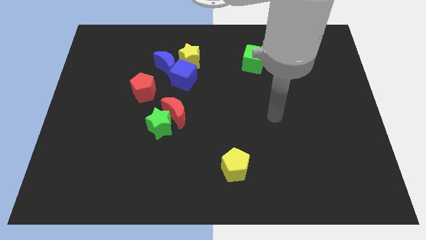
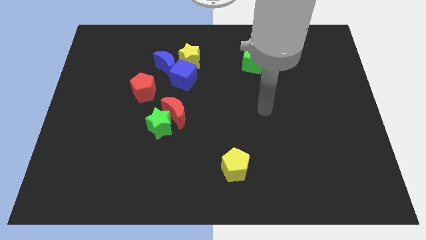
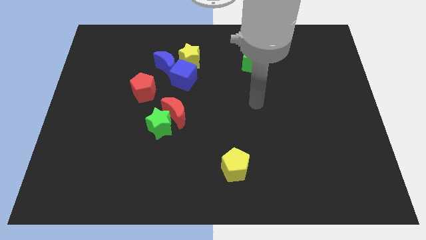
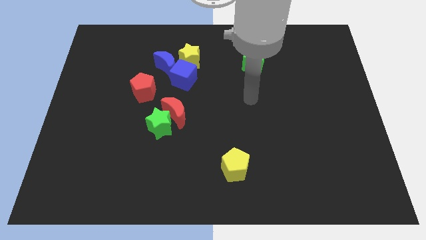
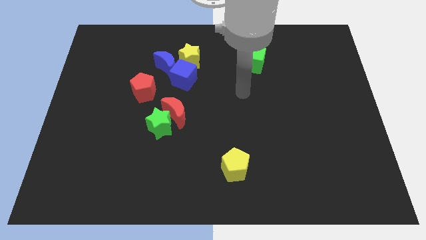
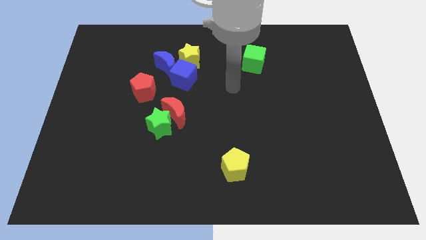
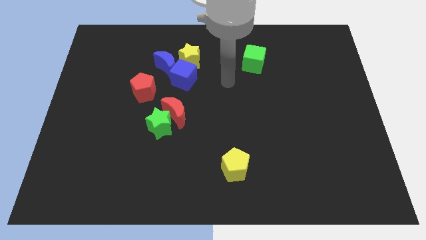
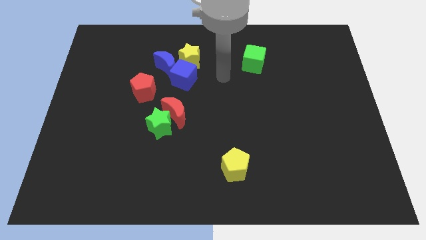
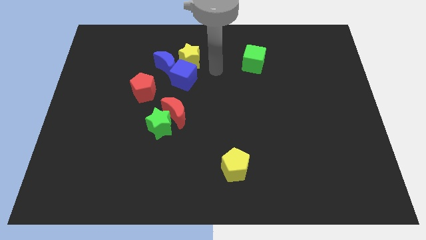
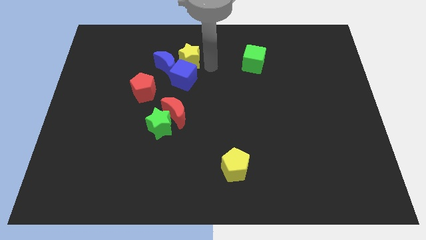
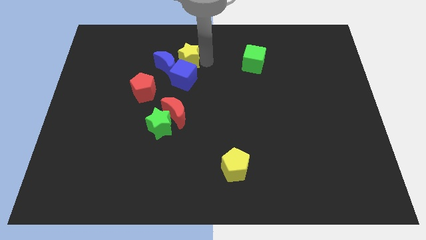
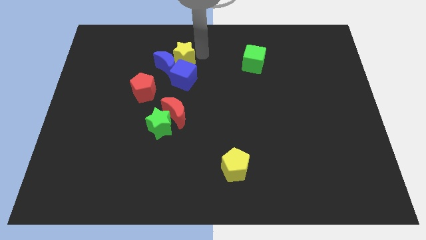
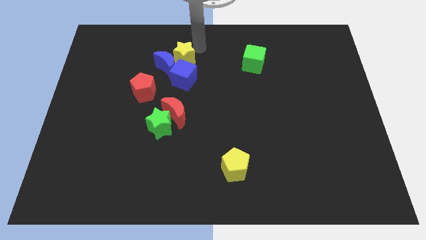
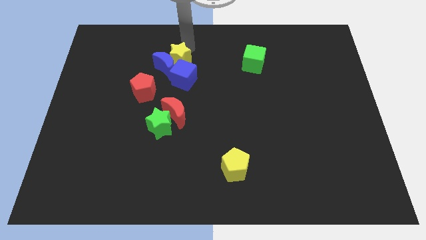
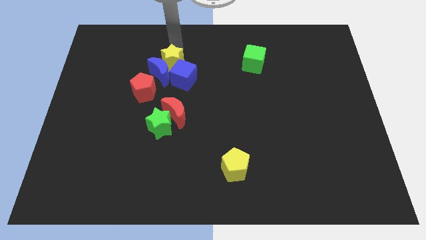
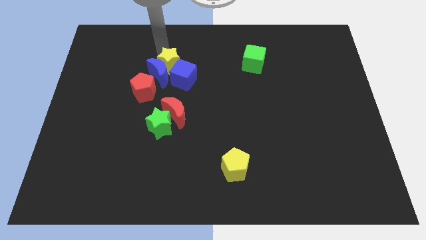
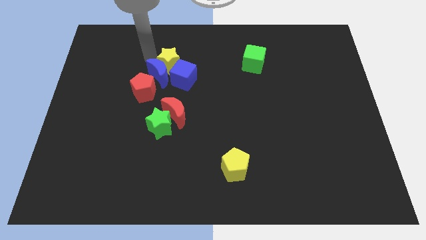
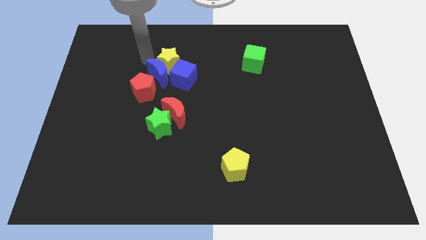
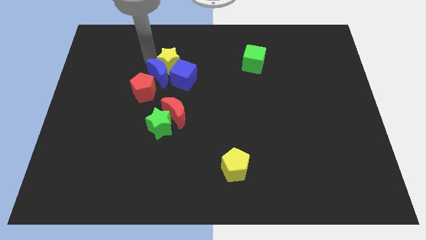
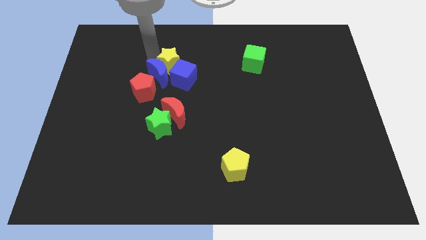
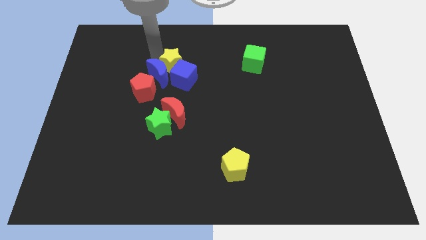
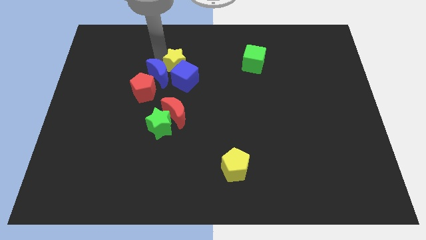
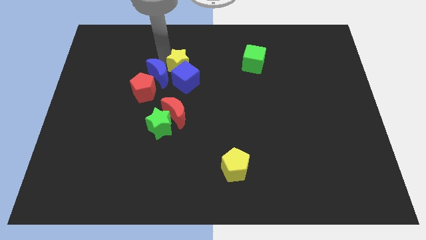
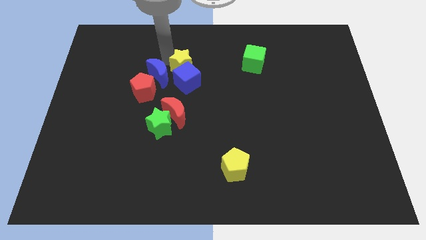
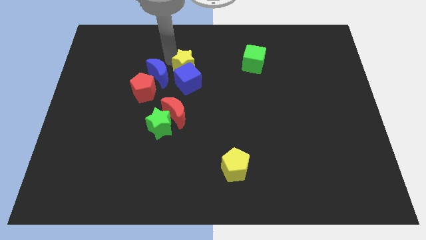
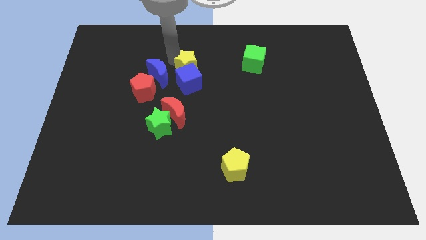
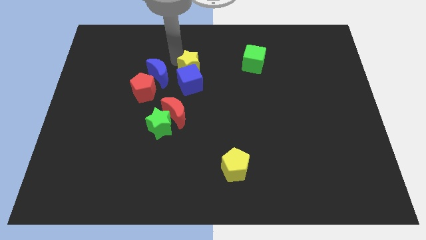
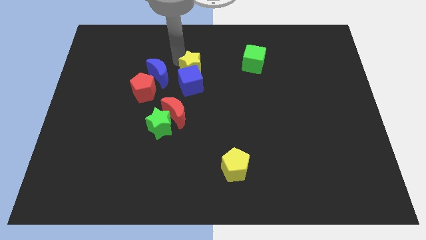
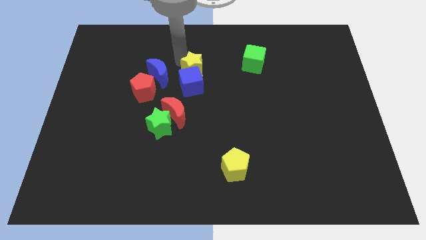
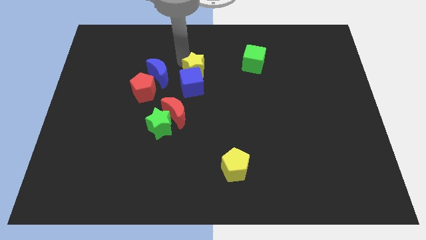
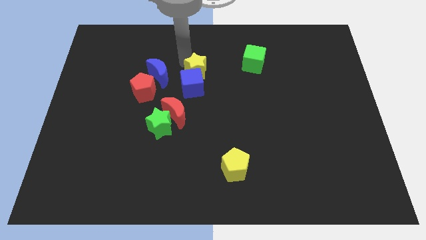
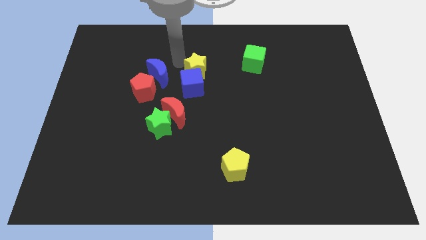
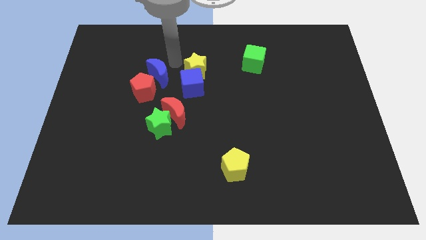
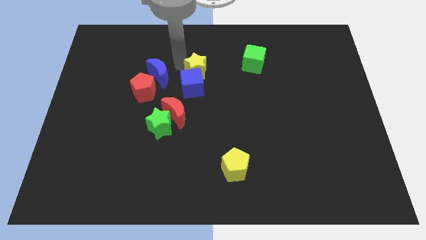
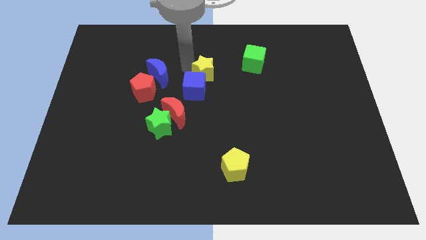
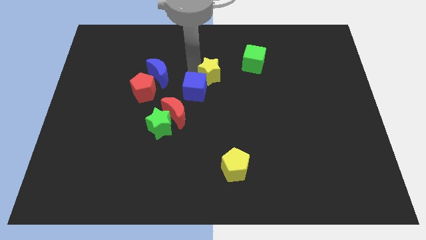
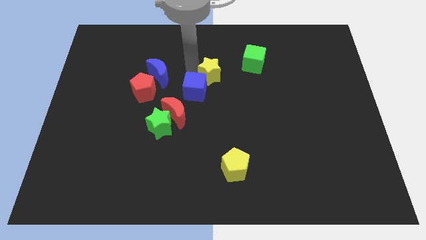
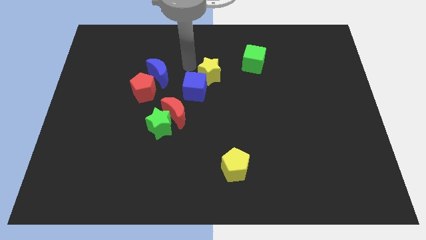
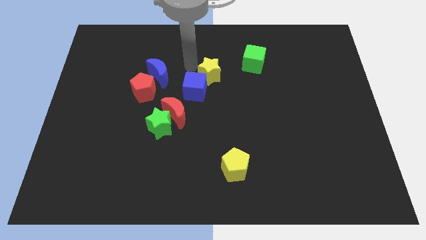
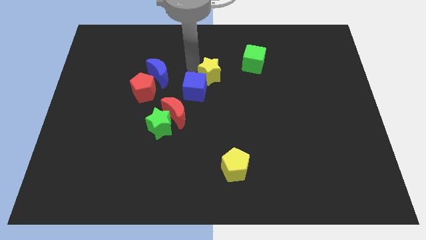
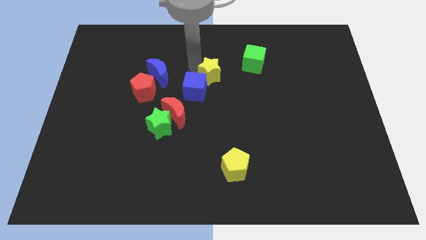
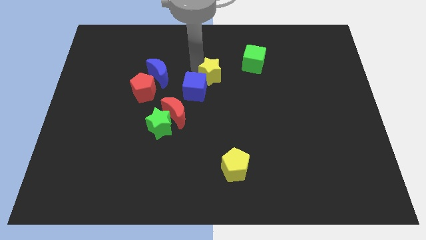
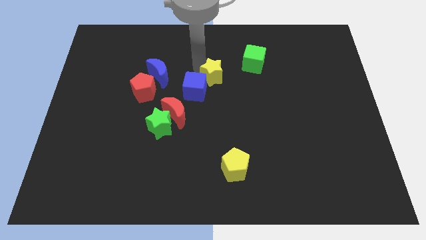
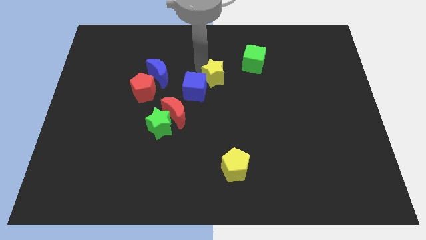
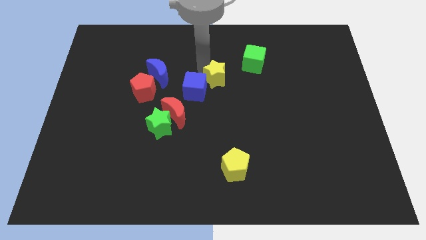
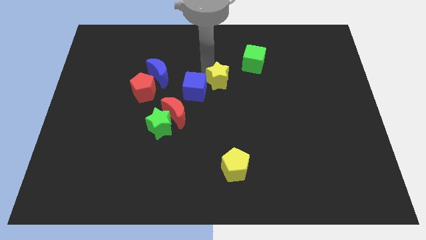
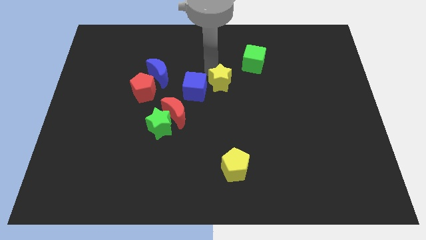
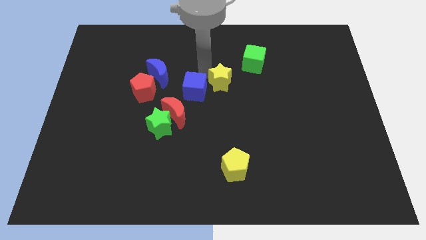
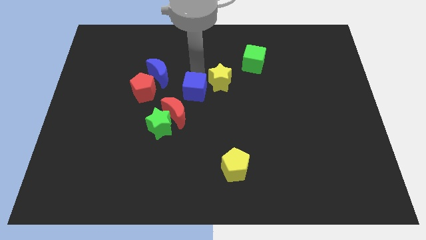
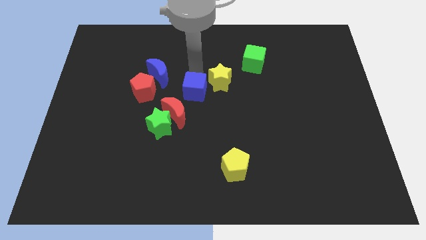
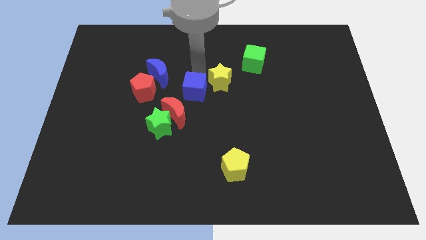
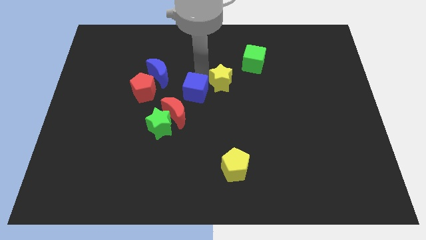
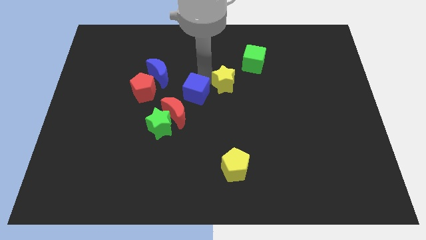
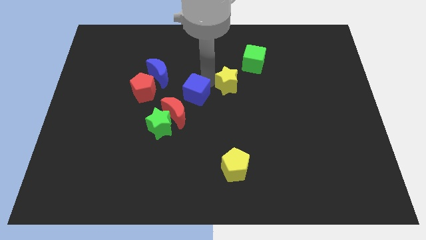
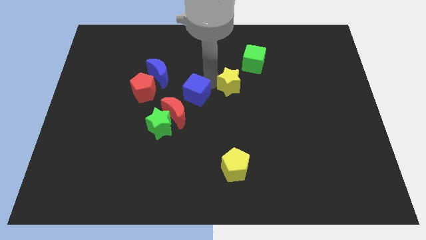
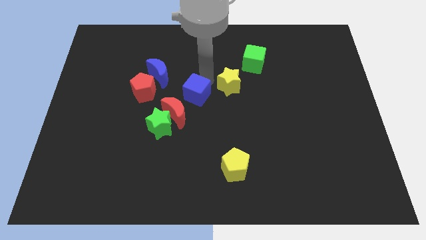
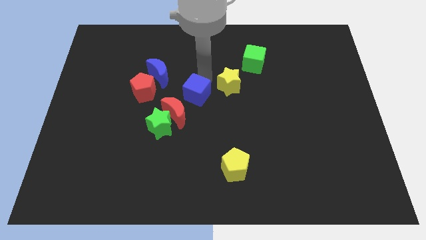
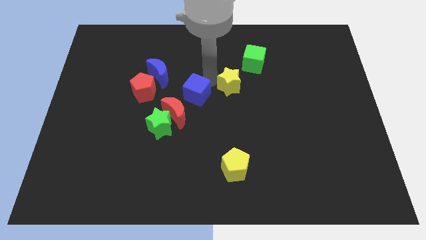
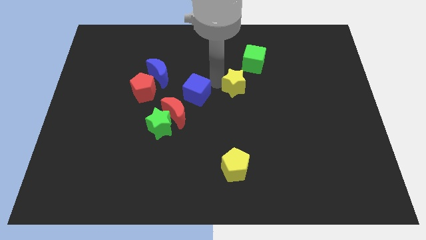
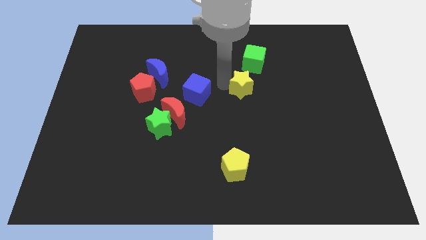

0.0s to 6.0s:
push the yellow star below the green cube
